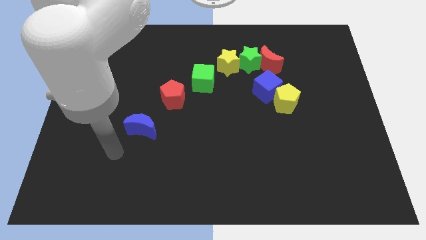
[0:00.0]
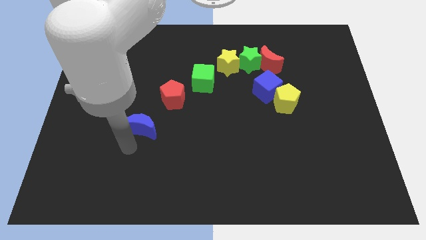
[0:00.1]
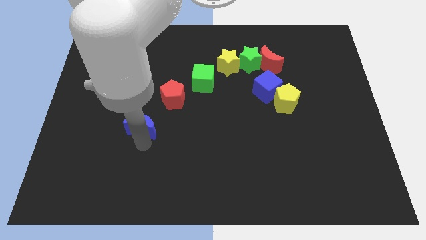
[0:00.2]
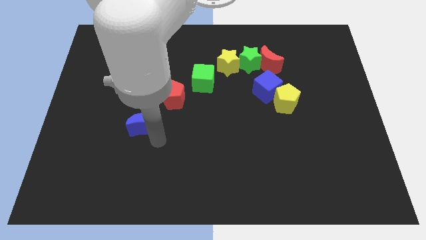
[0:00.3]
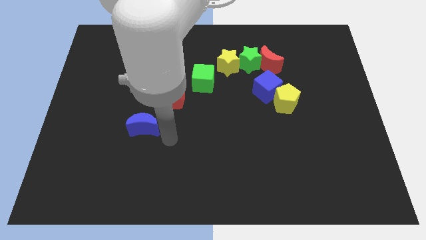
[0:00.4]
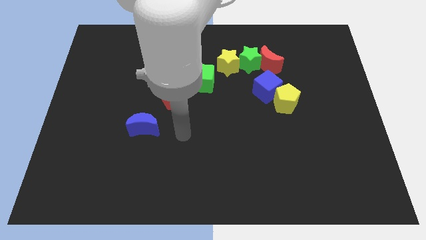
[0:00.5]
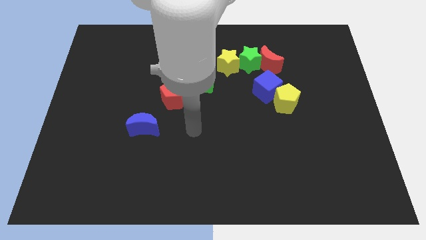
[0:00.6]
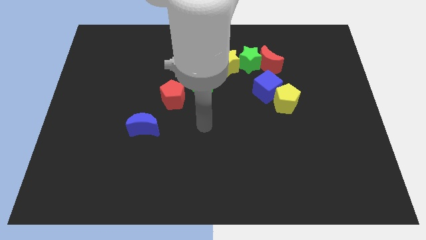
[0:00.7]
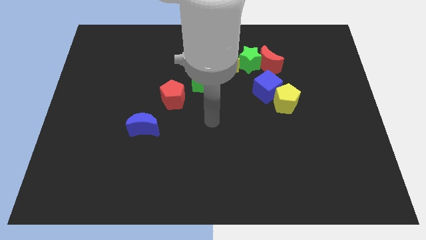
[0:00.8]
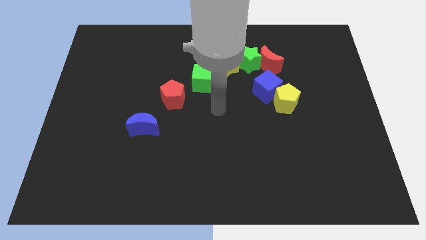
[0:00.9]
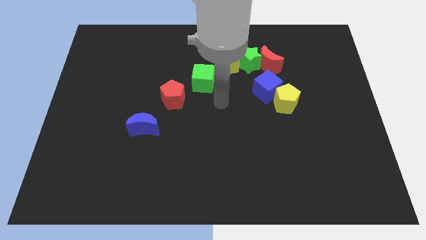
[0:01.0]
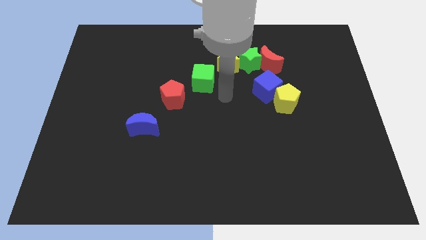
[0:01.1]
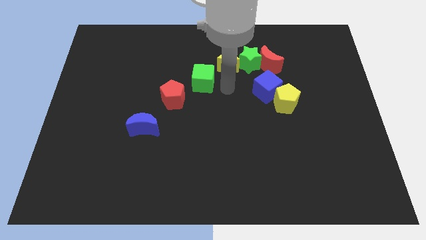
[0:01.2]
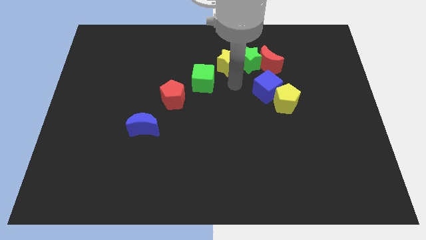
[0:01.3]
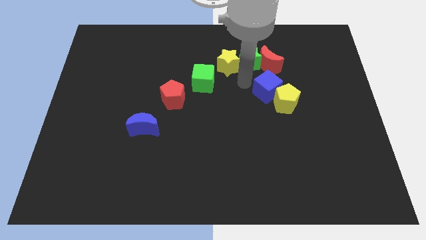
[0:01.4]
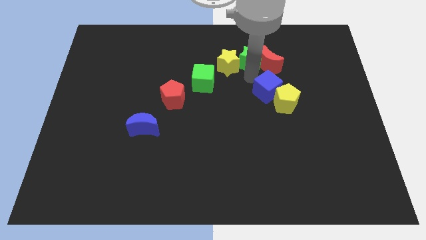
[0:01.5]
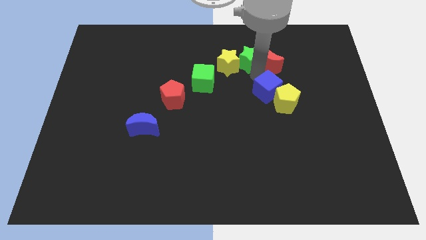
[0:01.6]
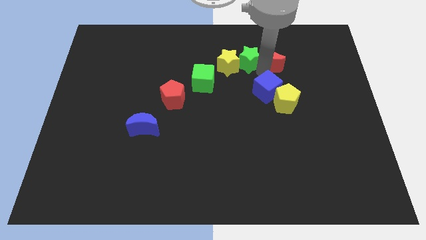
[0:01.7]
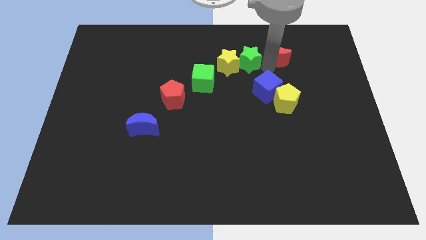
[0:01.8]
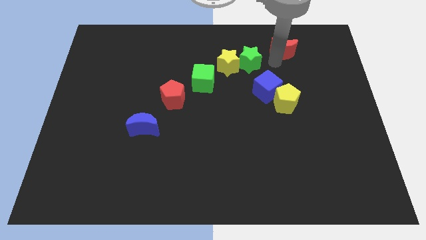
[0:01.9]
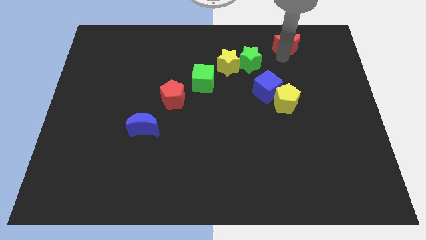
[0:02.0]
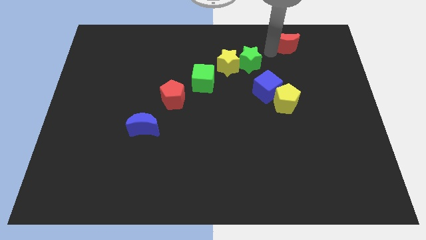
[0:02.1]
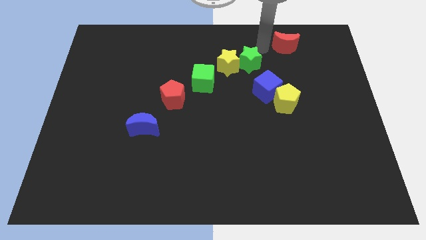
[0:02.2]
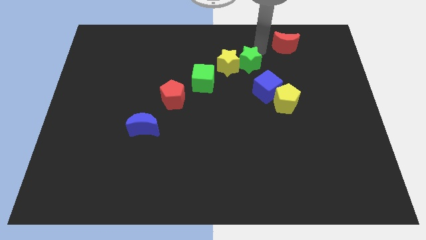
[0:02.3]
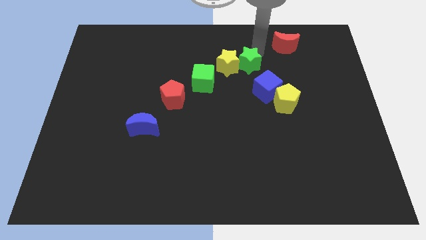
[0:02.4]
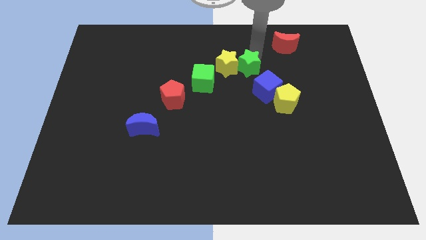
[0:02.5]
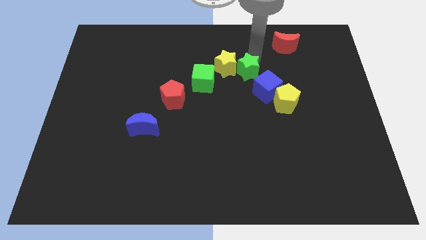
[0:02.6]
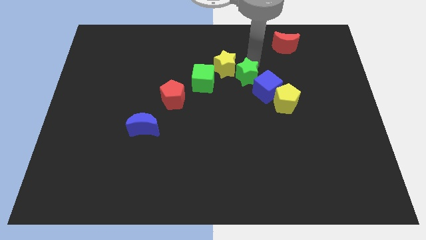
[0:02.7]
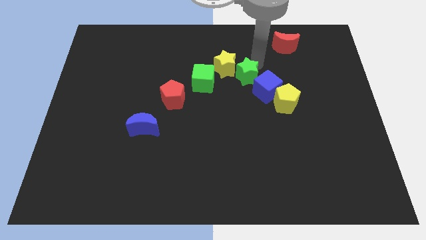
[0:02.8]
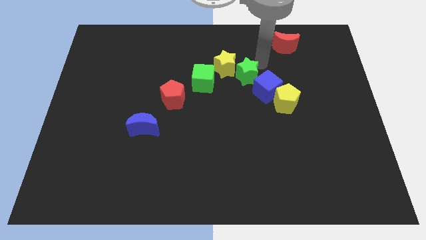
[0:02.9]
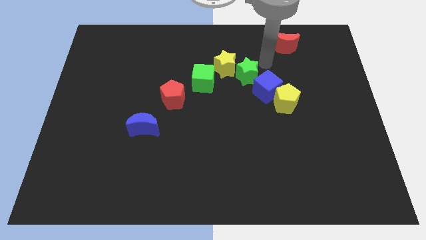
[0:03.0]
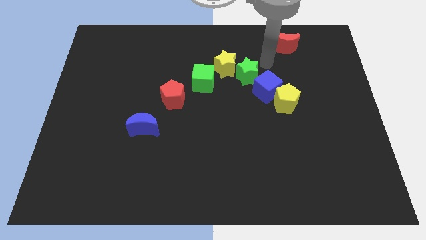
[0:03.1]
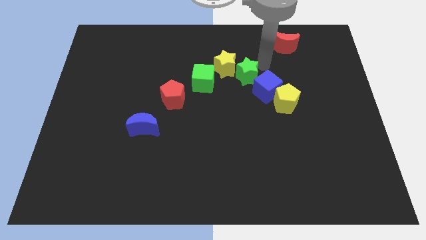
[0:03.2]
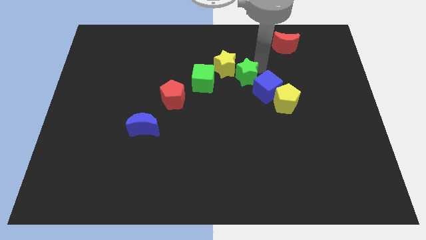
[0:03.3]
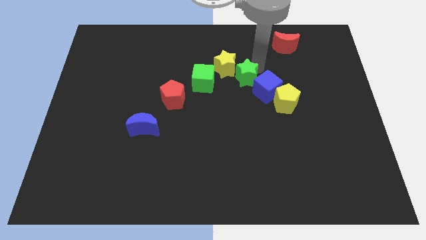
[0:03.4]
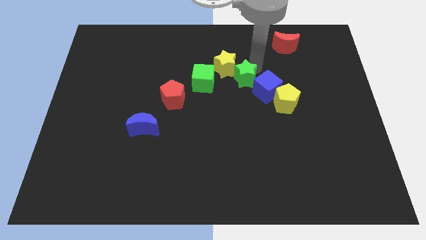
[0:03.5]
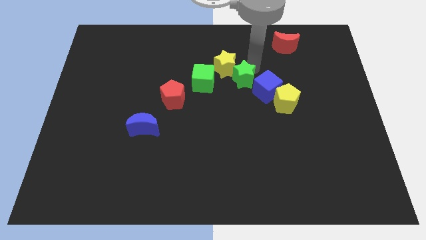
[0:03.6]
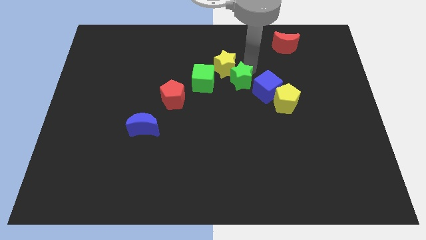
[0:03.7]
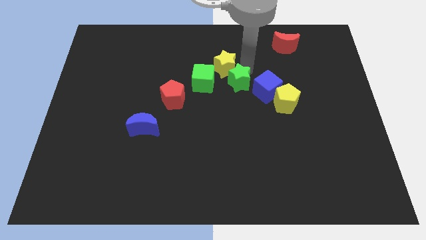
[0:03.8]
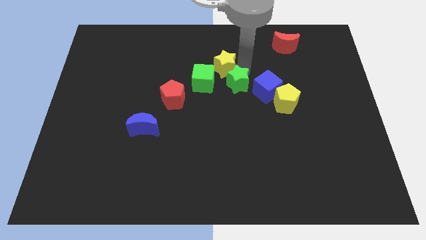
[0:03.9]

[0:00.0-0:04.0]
move the green star a little bit downwards and then to the left

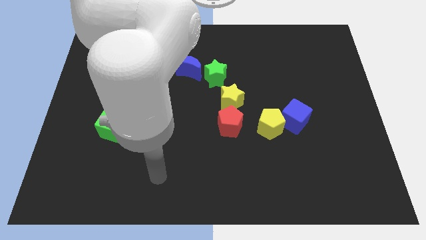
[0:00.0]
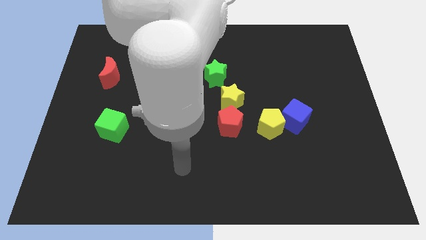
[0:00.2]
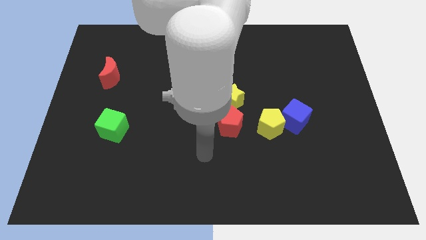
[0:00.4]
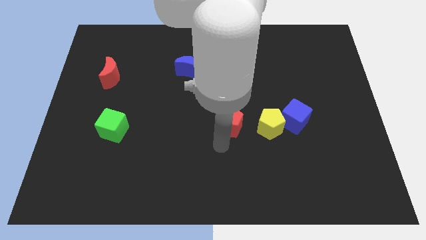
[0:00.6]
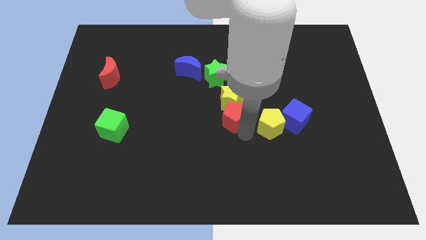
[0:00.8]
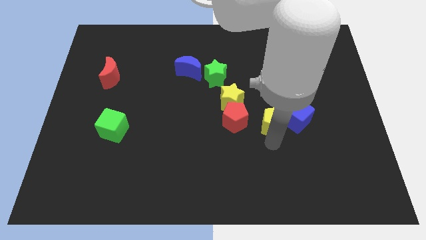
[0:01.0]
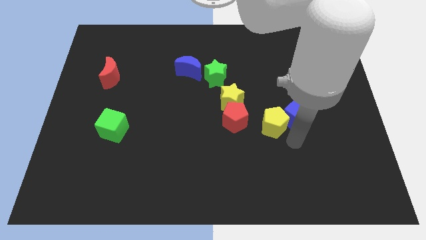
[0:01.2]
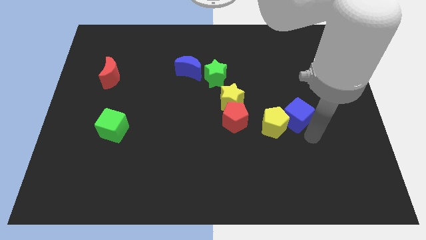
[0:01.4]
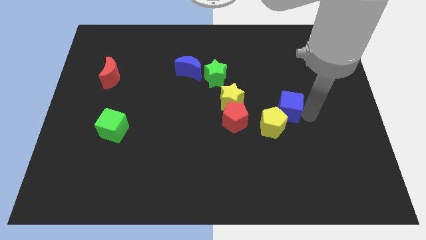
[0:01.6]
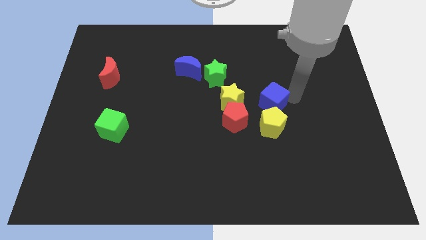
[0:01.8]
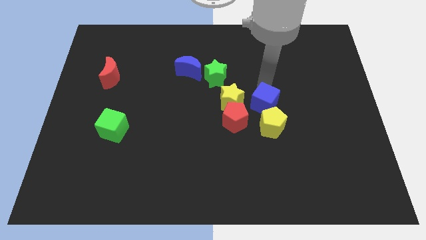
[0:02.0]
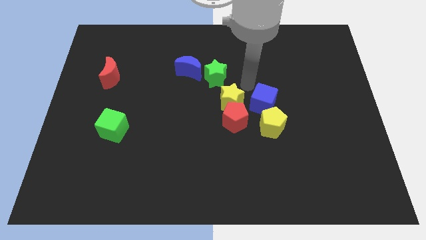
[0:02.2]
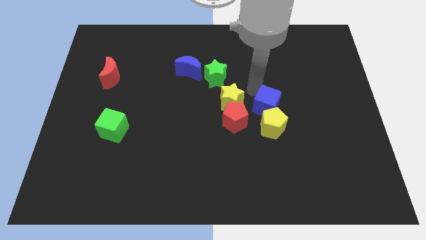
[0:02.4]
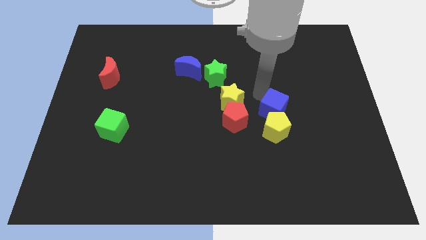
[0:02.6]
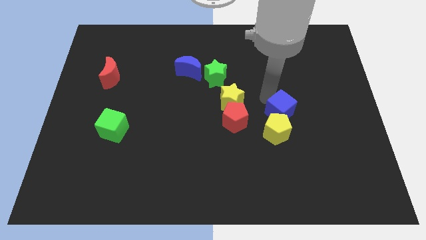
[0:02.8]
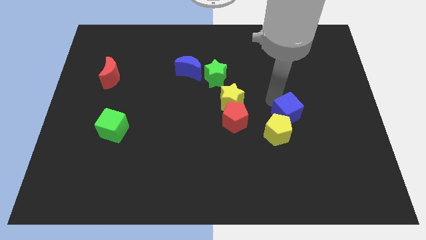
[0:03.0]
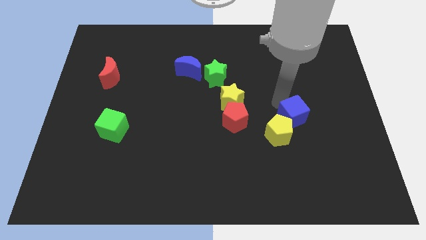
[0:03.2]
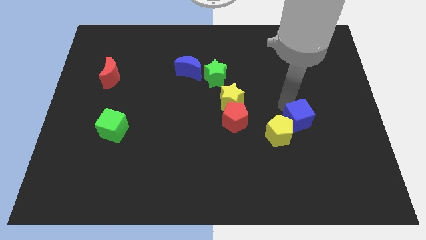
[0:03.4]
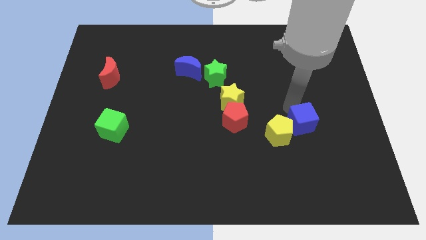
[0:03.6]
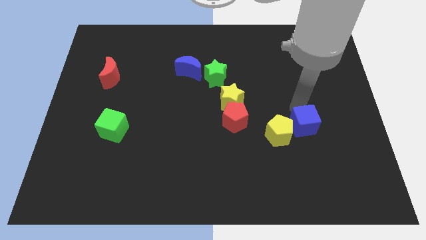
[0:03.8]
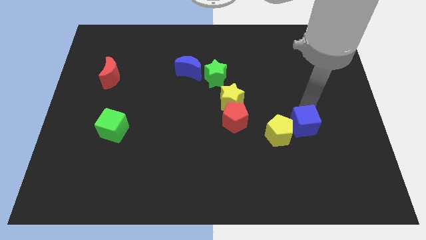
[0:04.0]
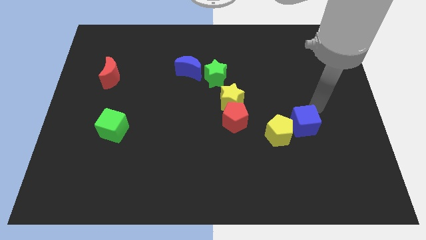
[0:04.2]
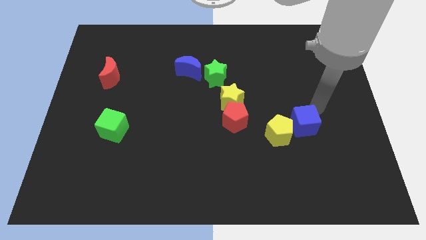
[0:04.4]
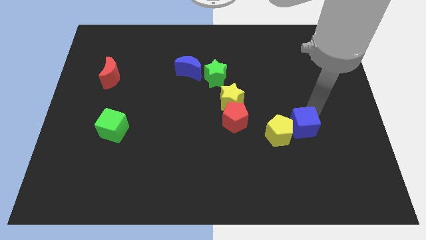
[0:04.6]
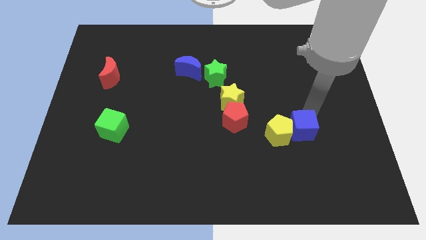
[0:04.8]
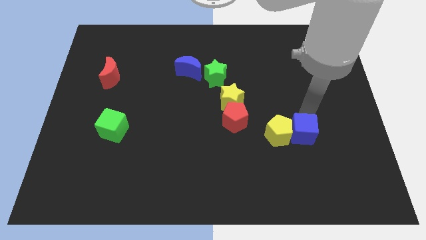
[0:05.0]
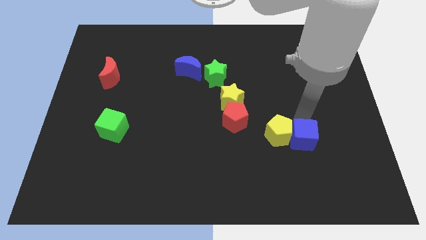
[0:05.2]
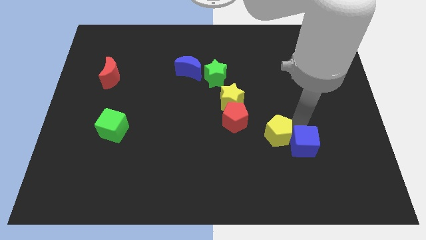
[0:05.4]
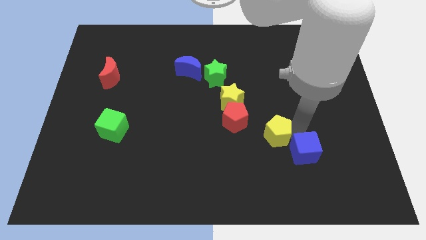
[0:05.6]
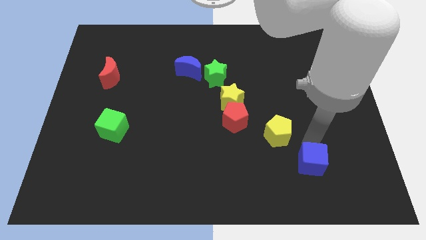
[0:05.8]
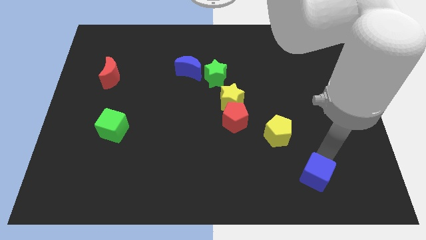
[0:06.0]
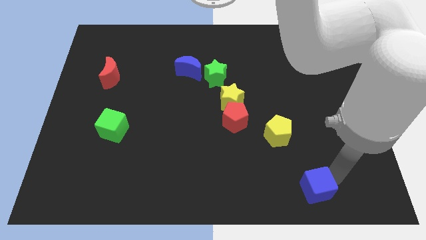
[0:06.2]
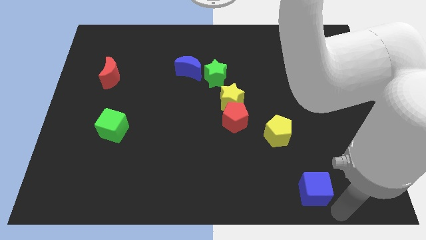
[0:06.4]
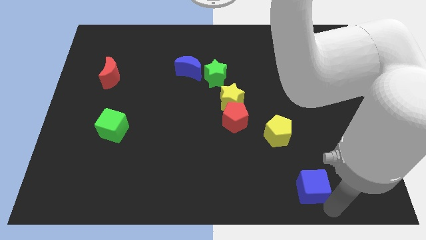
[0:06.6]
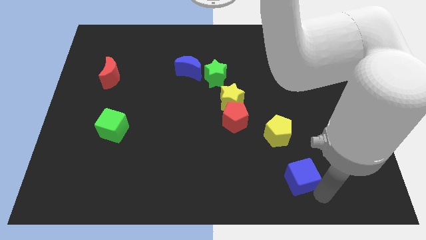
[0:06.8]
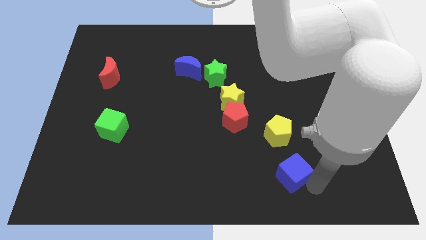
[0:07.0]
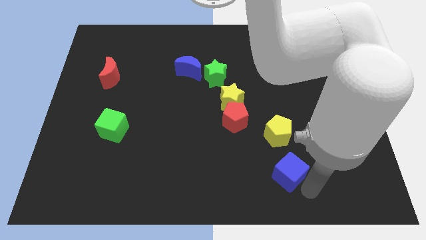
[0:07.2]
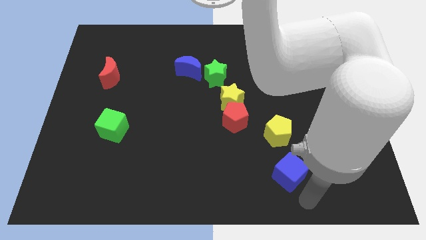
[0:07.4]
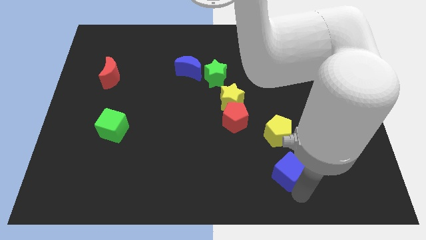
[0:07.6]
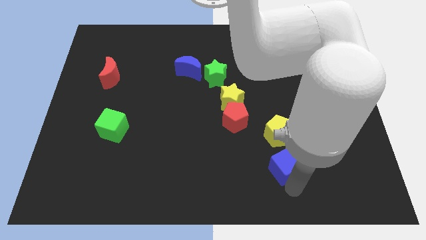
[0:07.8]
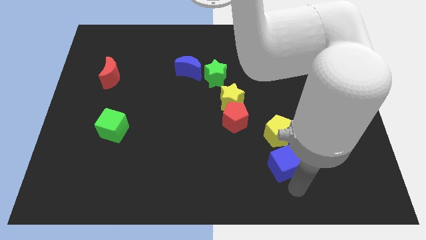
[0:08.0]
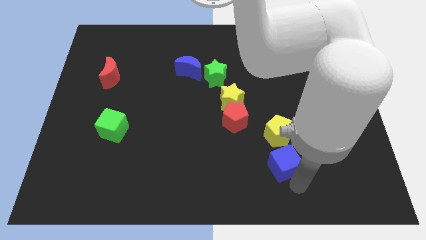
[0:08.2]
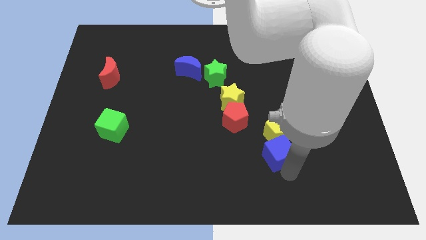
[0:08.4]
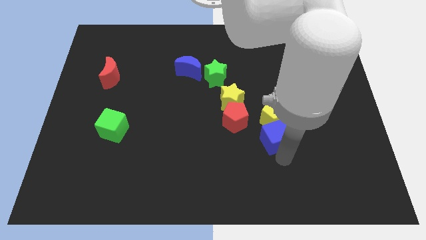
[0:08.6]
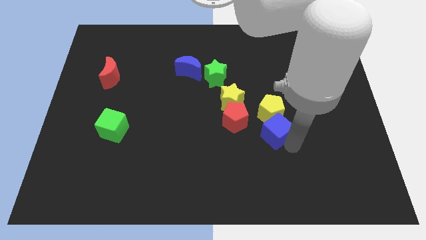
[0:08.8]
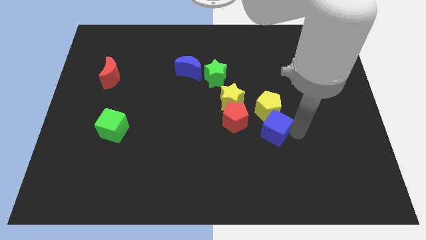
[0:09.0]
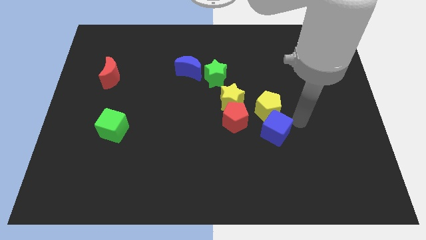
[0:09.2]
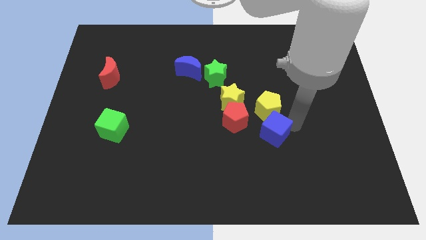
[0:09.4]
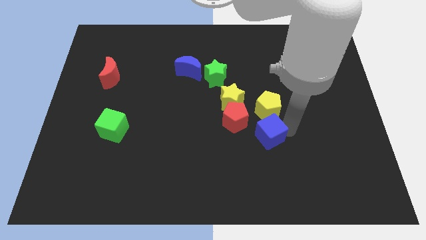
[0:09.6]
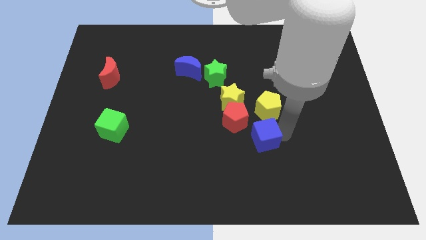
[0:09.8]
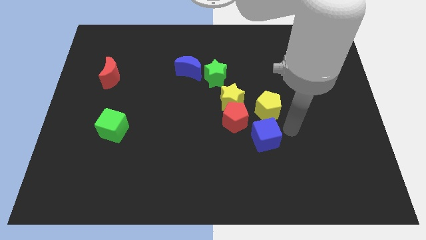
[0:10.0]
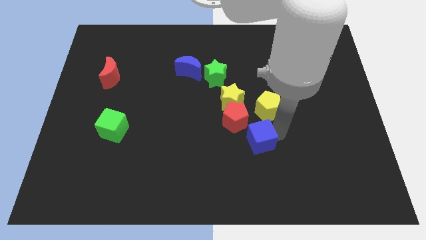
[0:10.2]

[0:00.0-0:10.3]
slightly move the blue cube left
